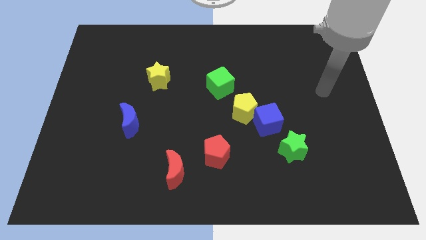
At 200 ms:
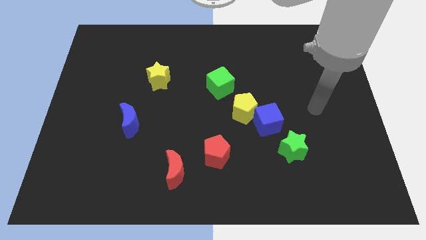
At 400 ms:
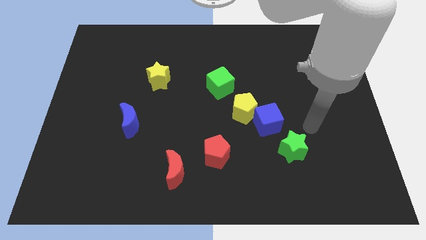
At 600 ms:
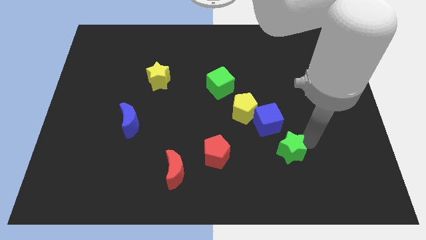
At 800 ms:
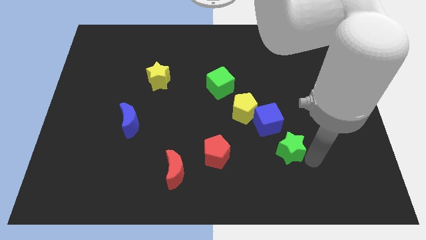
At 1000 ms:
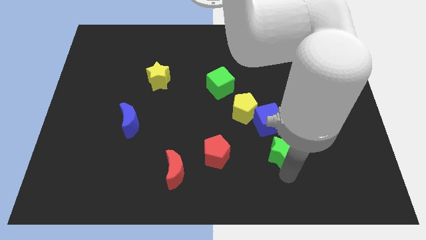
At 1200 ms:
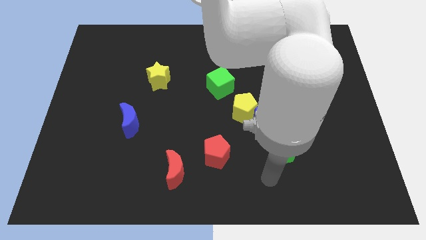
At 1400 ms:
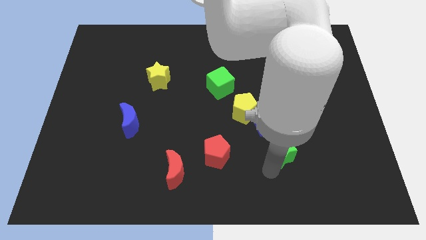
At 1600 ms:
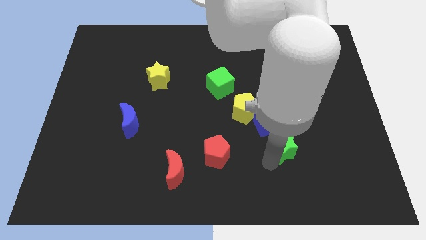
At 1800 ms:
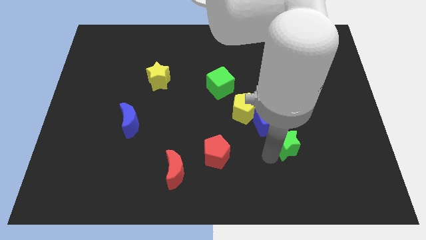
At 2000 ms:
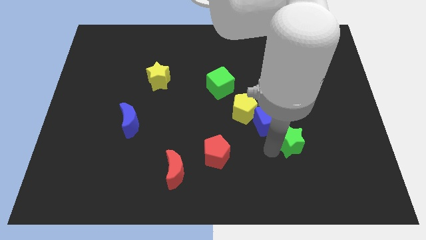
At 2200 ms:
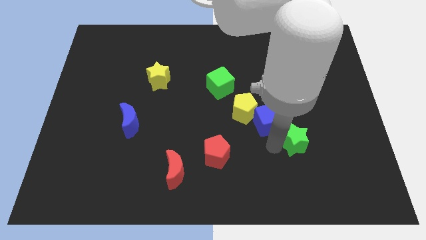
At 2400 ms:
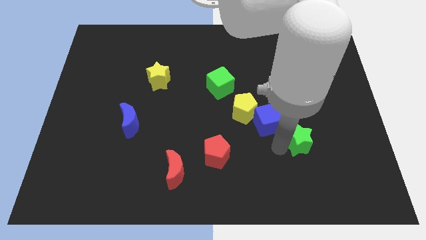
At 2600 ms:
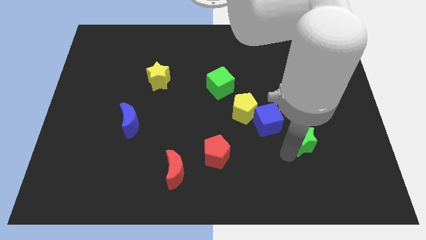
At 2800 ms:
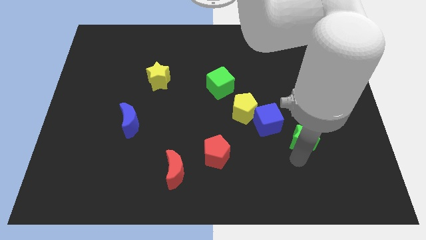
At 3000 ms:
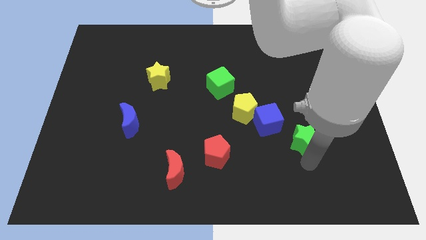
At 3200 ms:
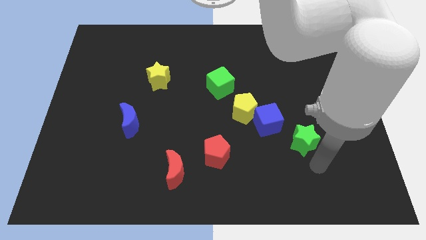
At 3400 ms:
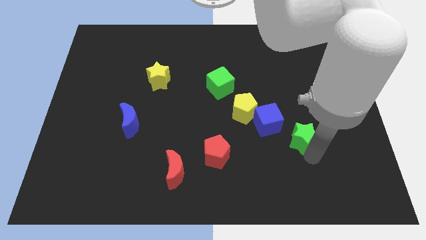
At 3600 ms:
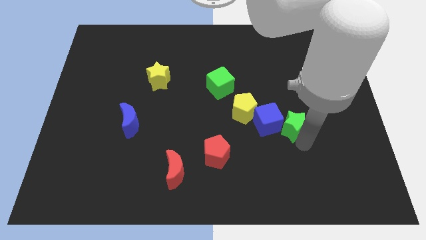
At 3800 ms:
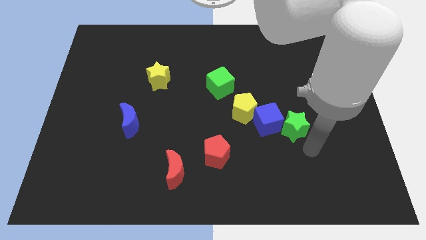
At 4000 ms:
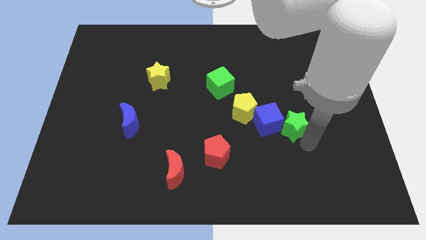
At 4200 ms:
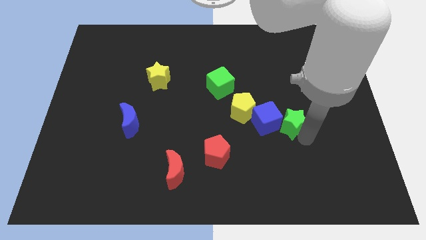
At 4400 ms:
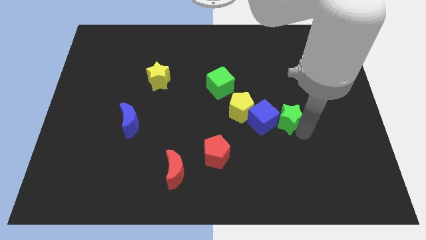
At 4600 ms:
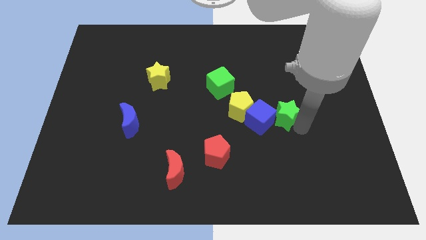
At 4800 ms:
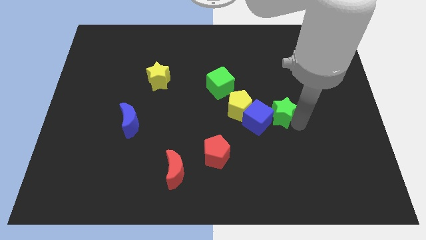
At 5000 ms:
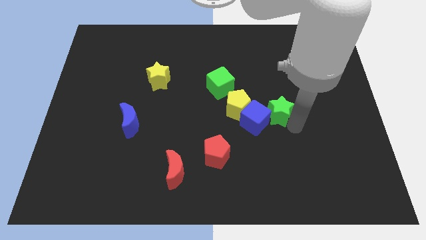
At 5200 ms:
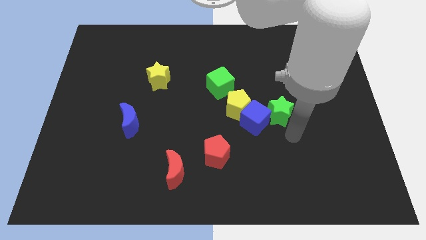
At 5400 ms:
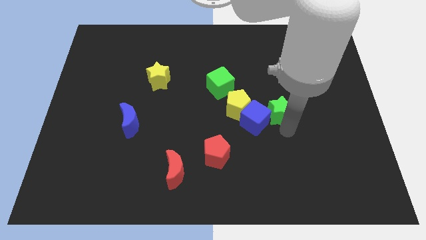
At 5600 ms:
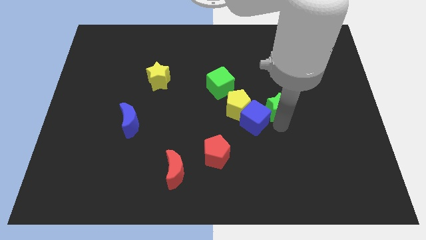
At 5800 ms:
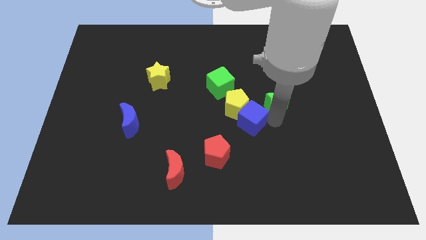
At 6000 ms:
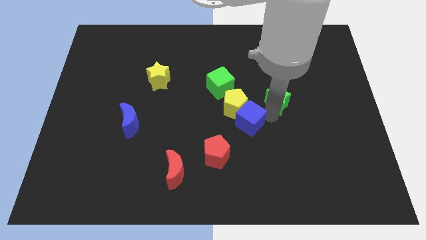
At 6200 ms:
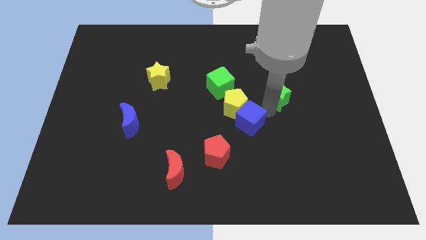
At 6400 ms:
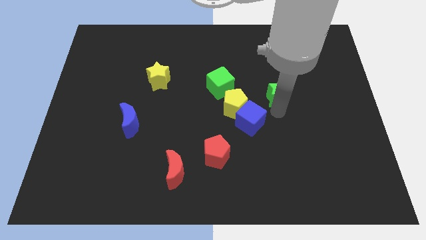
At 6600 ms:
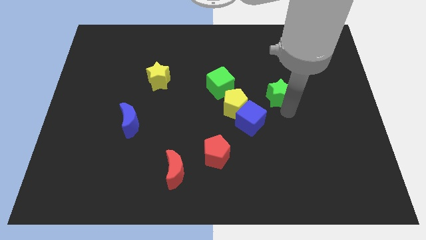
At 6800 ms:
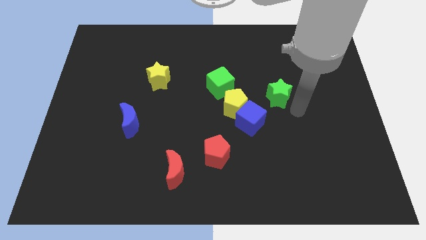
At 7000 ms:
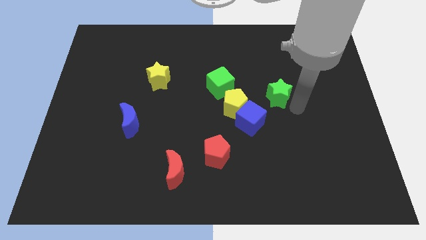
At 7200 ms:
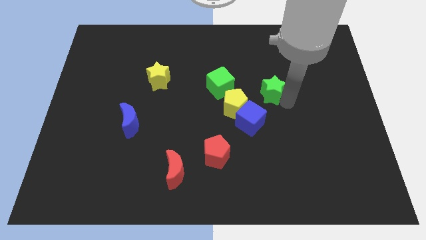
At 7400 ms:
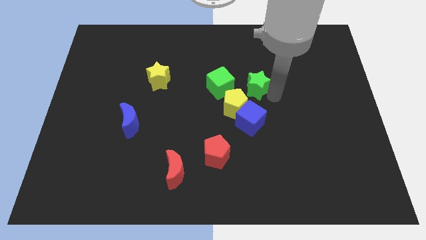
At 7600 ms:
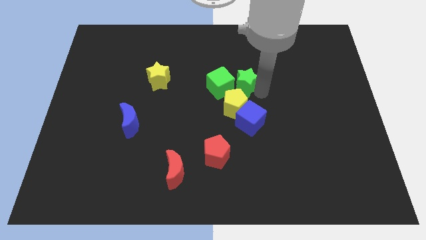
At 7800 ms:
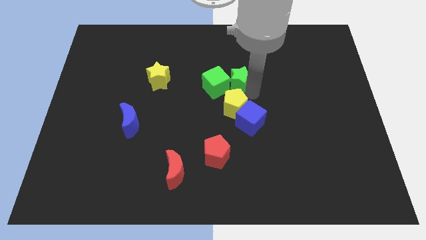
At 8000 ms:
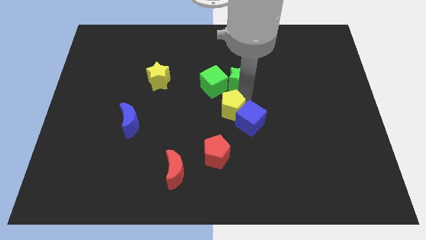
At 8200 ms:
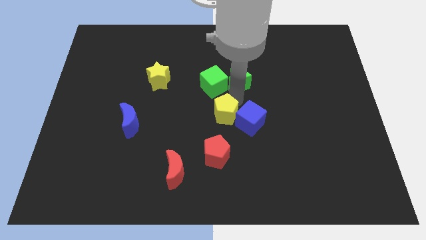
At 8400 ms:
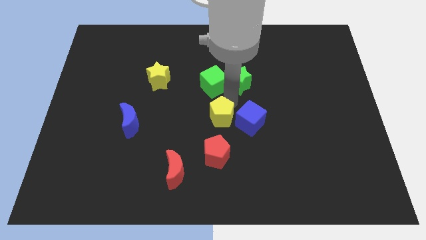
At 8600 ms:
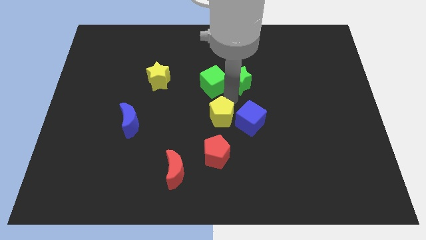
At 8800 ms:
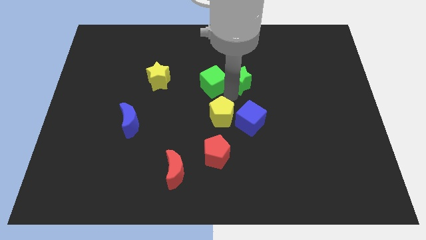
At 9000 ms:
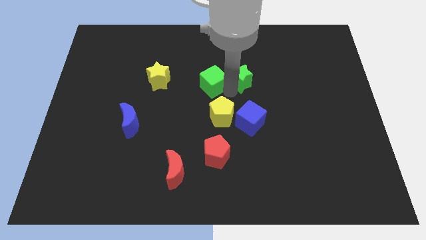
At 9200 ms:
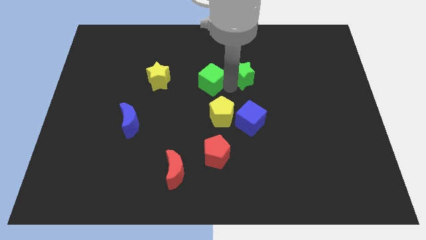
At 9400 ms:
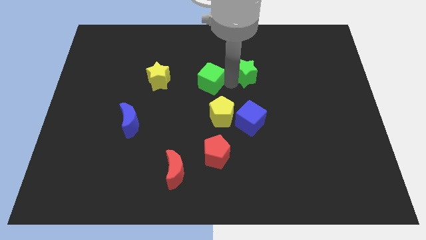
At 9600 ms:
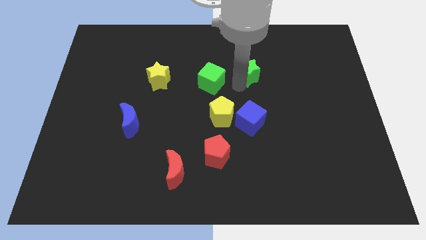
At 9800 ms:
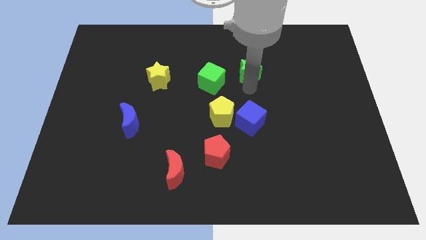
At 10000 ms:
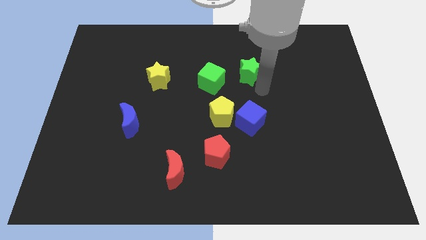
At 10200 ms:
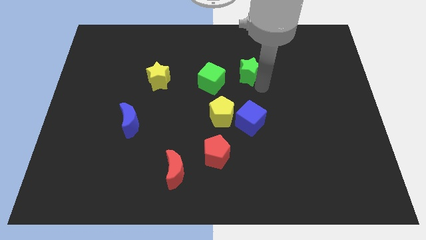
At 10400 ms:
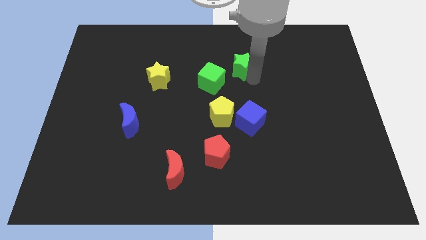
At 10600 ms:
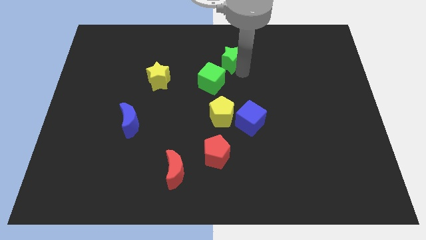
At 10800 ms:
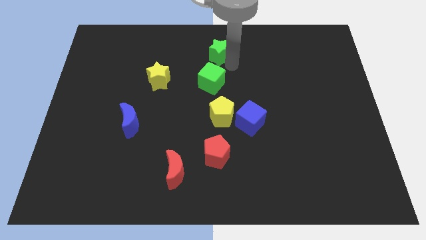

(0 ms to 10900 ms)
move the green star to the top

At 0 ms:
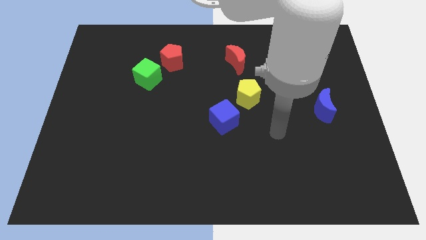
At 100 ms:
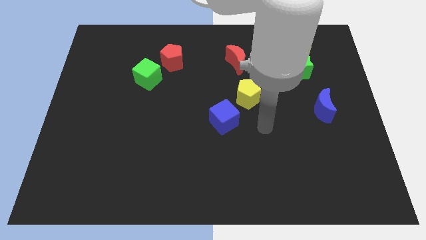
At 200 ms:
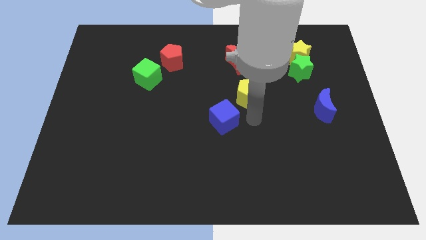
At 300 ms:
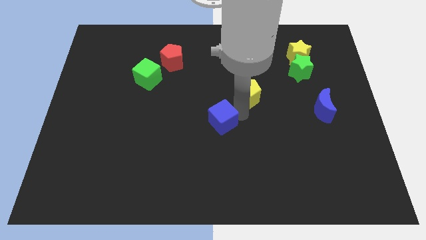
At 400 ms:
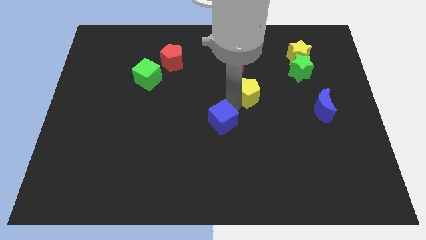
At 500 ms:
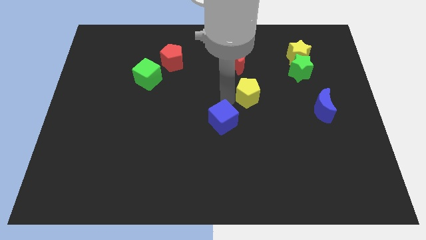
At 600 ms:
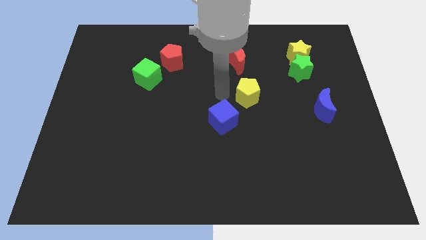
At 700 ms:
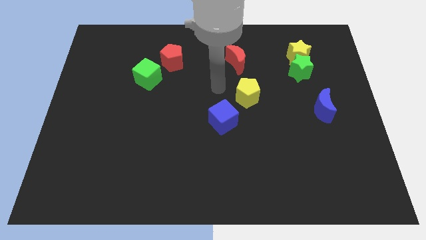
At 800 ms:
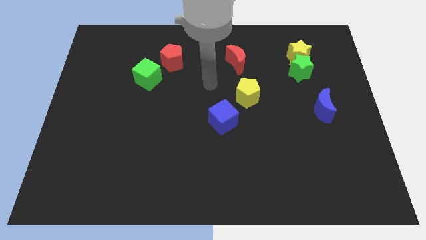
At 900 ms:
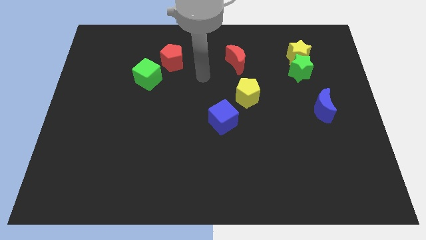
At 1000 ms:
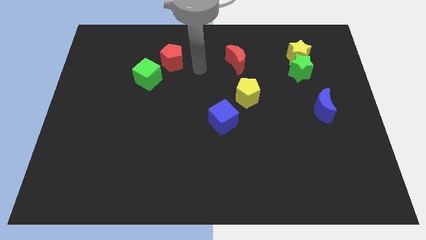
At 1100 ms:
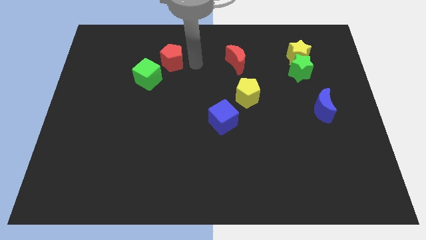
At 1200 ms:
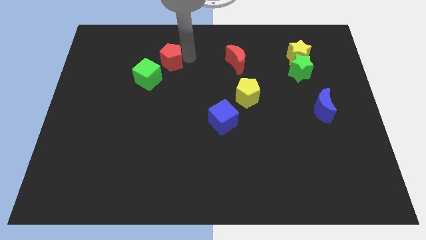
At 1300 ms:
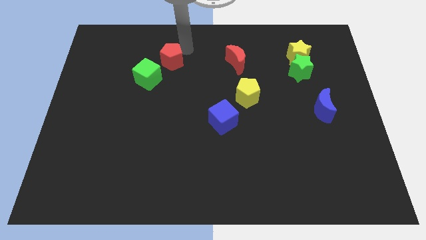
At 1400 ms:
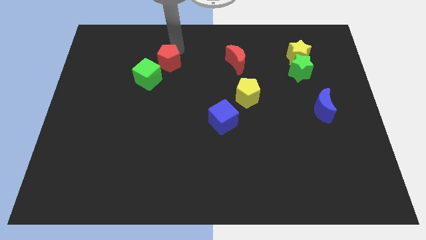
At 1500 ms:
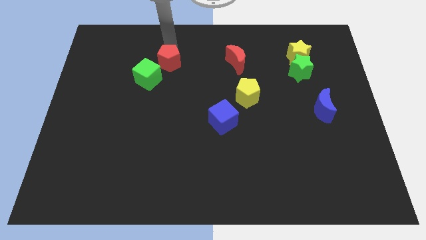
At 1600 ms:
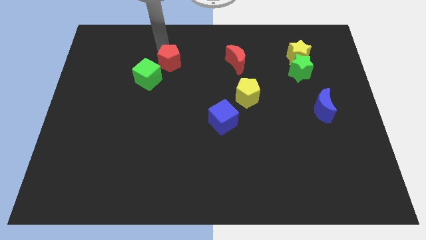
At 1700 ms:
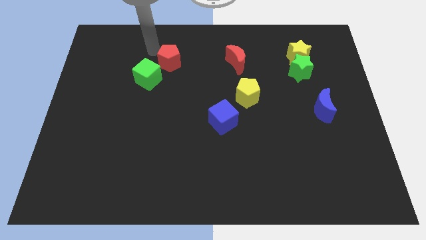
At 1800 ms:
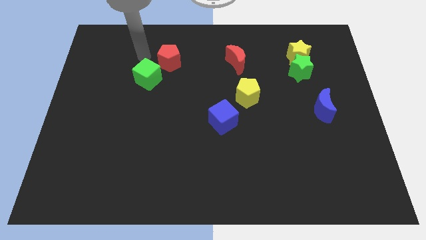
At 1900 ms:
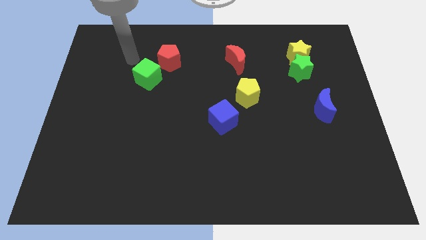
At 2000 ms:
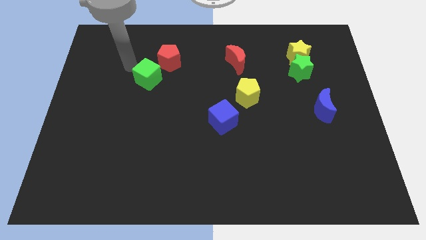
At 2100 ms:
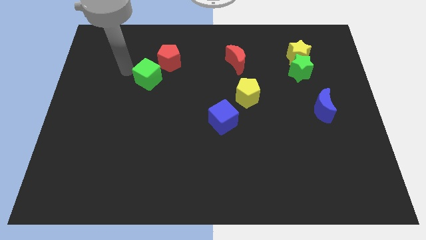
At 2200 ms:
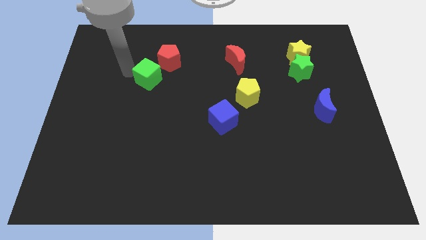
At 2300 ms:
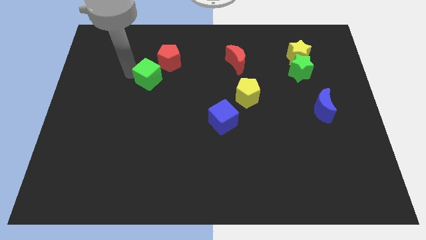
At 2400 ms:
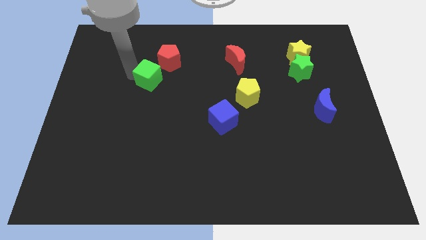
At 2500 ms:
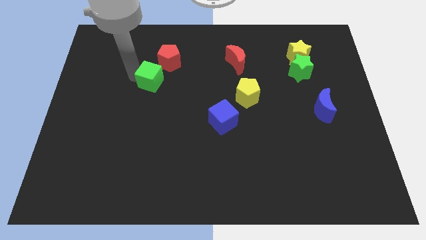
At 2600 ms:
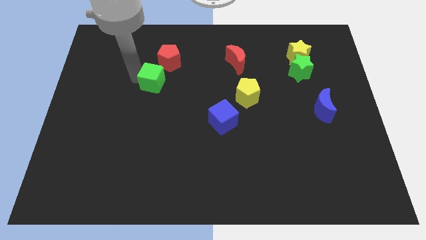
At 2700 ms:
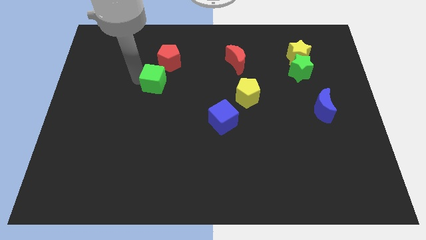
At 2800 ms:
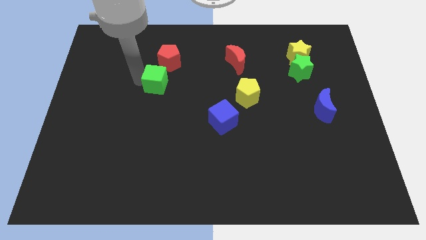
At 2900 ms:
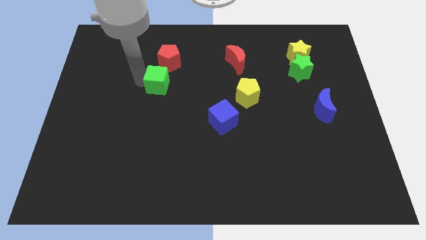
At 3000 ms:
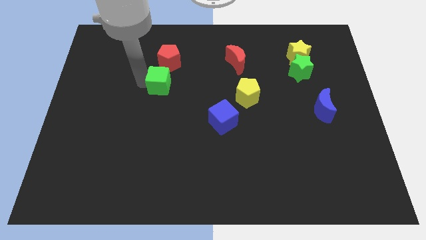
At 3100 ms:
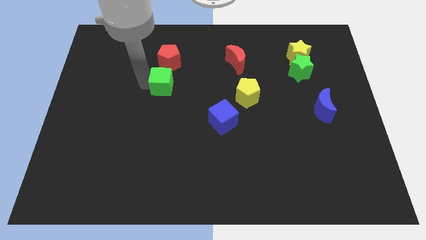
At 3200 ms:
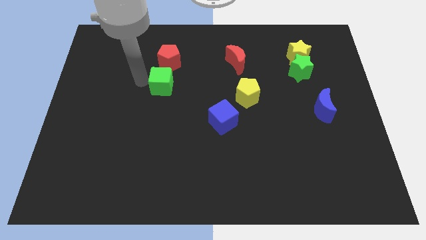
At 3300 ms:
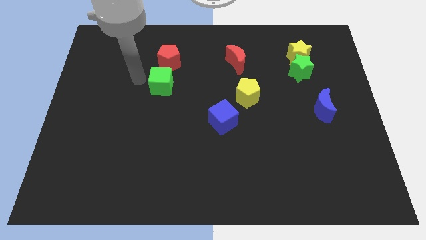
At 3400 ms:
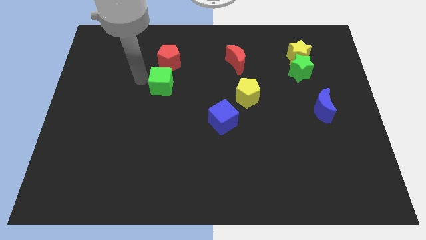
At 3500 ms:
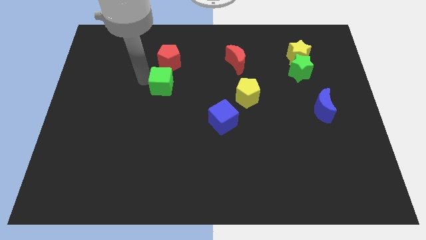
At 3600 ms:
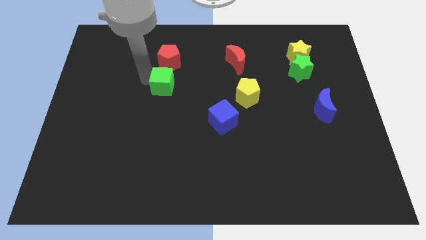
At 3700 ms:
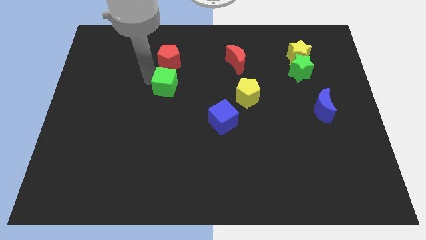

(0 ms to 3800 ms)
move the green cube to the middle
